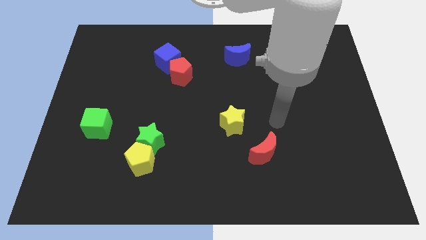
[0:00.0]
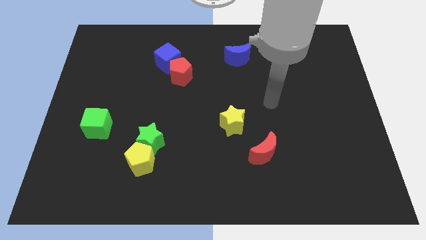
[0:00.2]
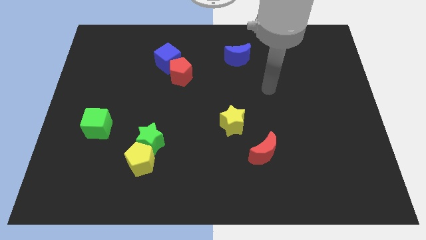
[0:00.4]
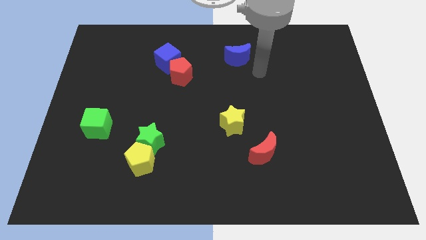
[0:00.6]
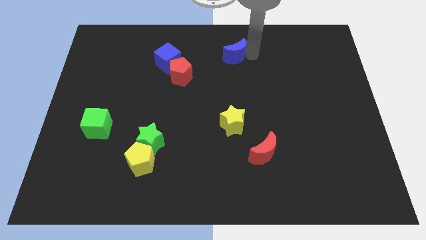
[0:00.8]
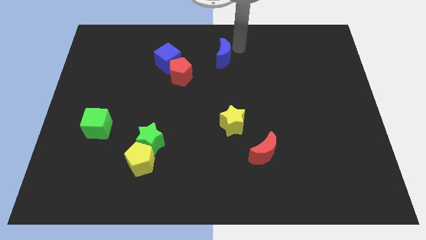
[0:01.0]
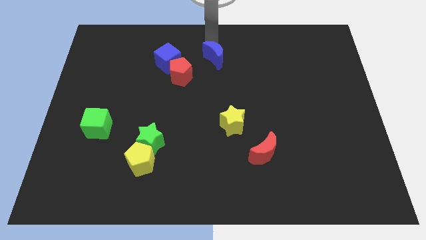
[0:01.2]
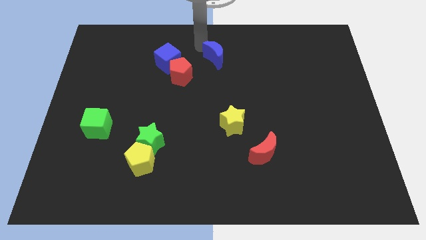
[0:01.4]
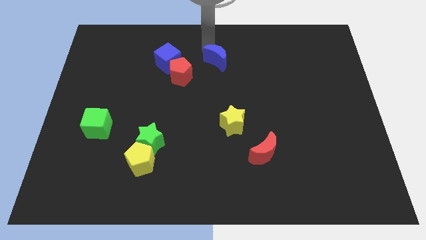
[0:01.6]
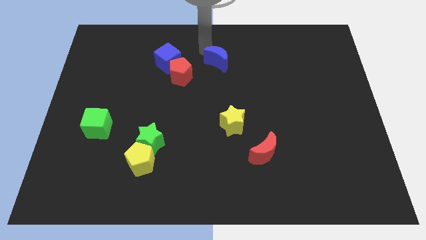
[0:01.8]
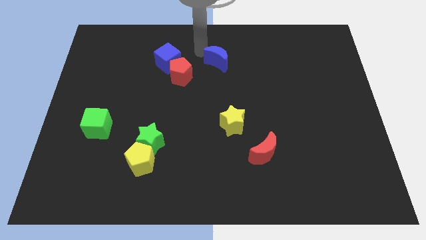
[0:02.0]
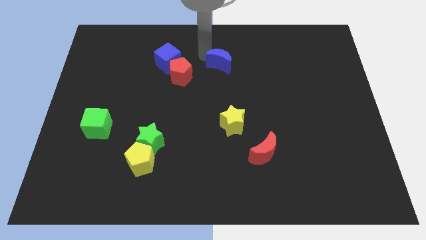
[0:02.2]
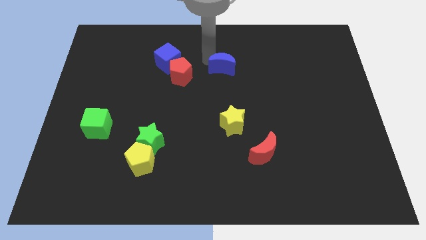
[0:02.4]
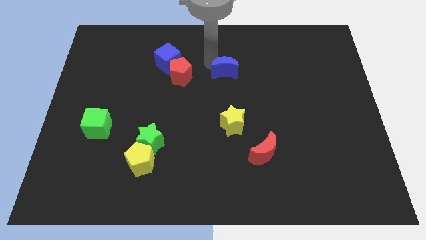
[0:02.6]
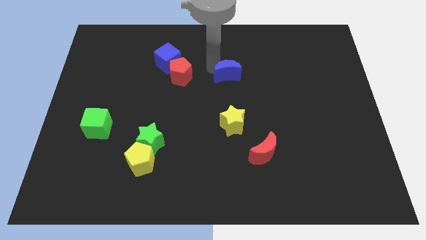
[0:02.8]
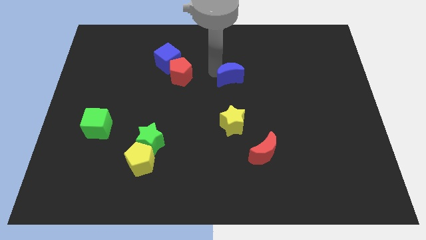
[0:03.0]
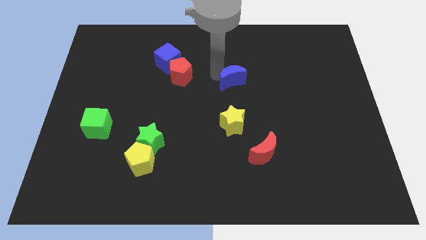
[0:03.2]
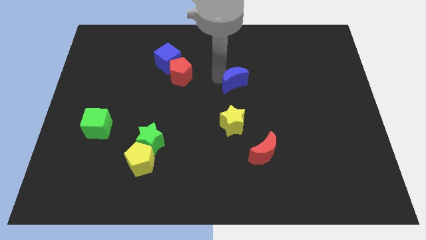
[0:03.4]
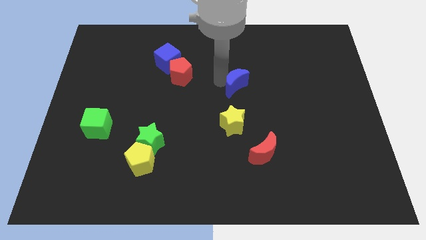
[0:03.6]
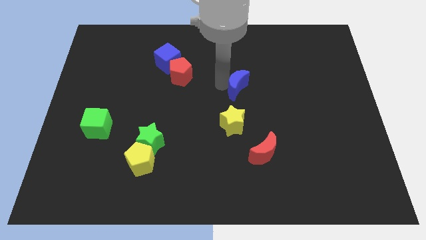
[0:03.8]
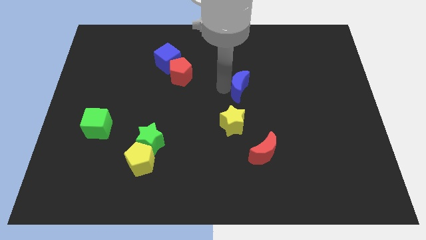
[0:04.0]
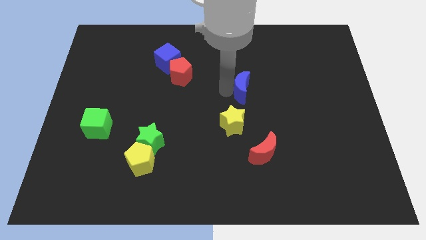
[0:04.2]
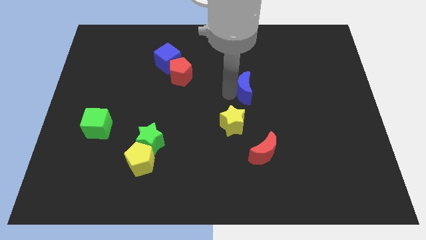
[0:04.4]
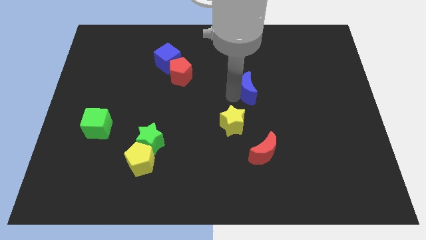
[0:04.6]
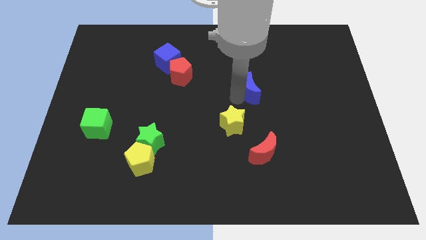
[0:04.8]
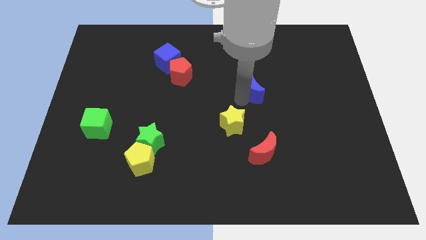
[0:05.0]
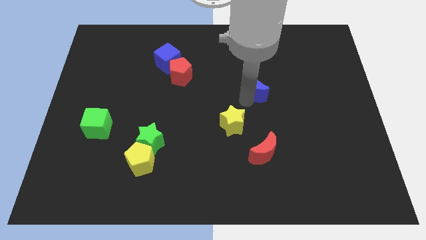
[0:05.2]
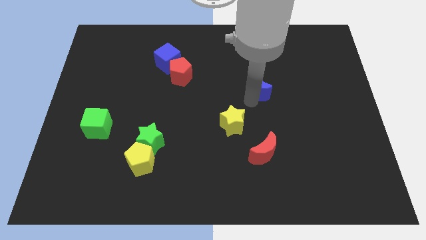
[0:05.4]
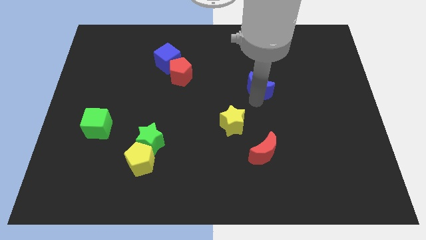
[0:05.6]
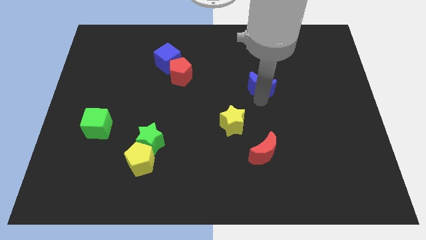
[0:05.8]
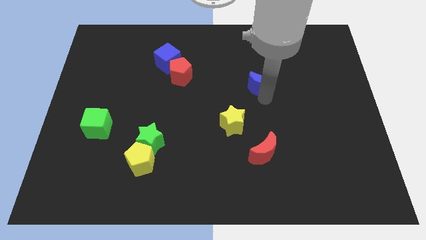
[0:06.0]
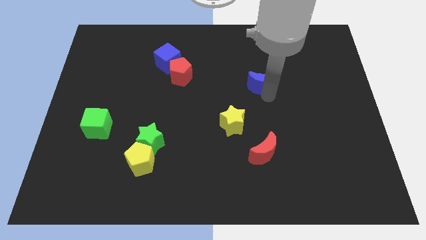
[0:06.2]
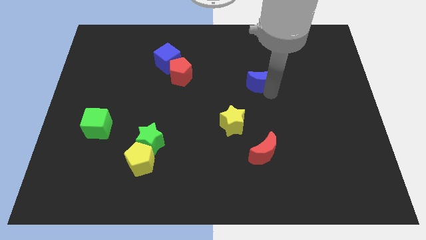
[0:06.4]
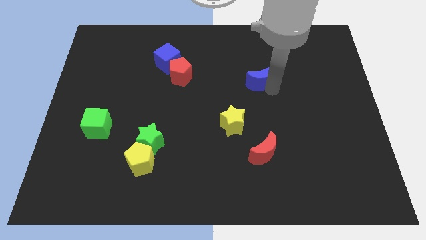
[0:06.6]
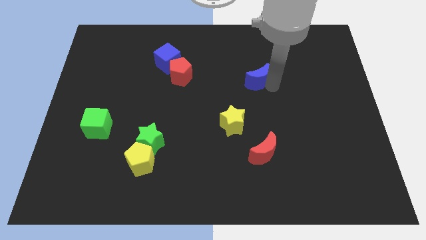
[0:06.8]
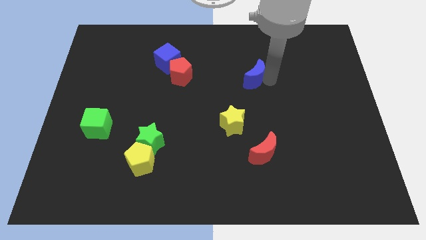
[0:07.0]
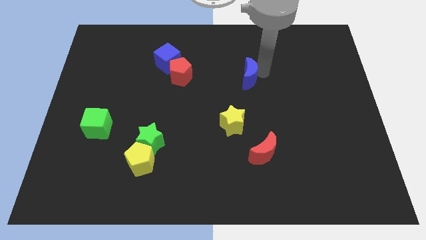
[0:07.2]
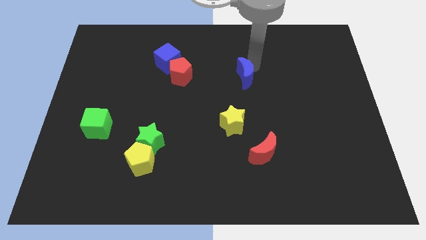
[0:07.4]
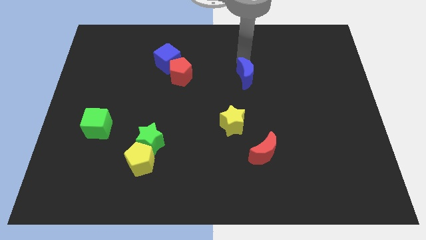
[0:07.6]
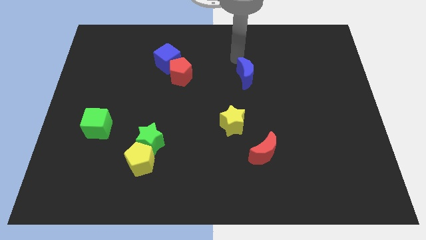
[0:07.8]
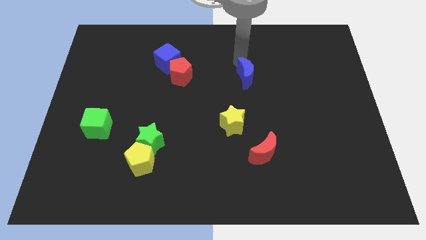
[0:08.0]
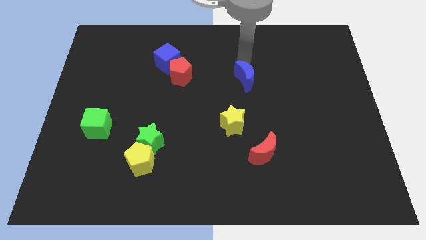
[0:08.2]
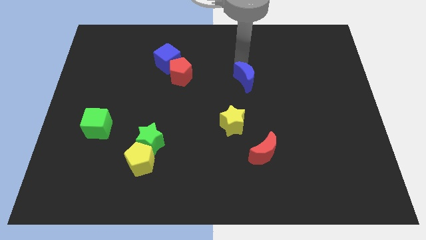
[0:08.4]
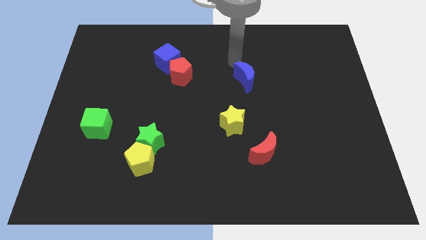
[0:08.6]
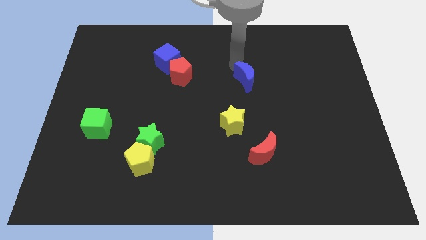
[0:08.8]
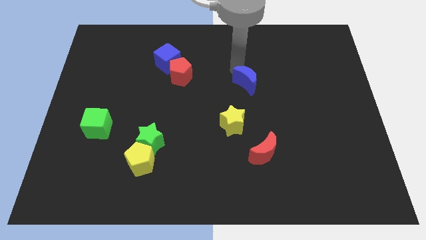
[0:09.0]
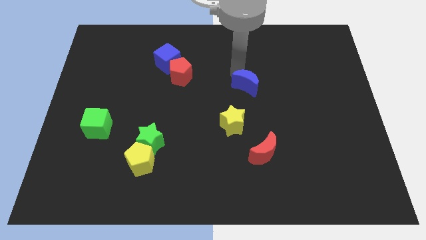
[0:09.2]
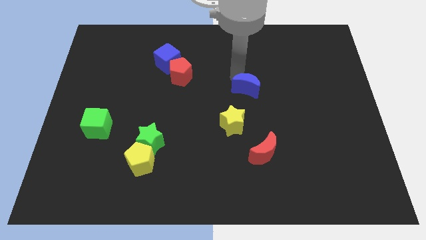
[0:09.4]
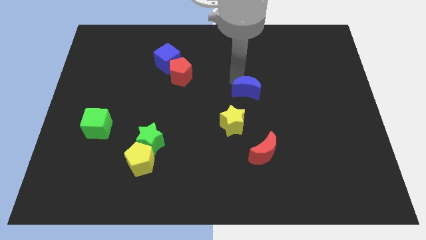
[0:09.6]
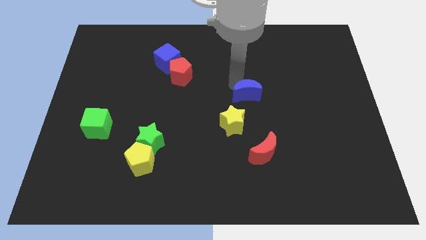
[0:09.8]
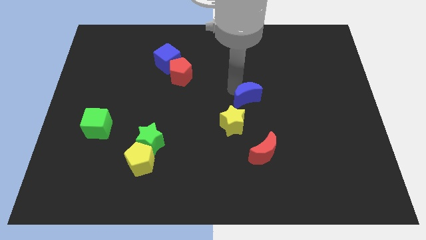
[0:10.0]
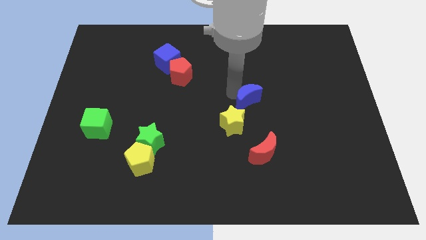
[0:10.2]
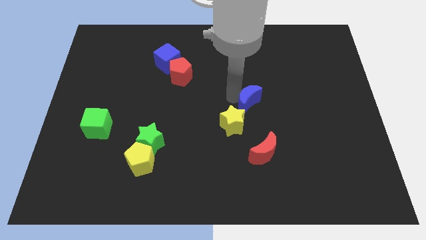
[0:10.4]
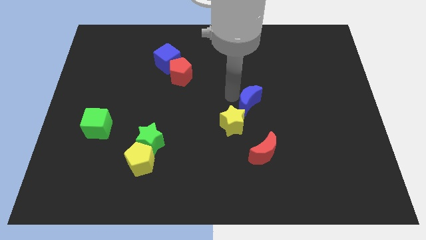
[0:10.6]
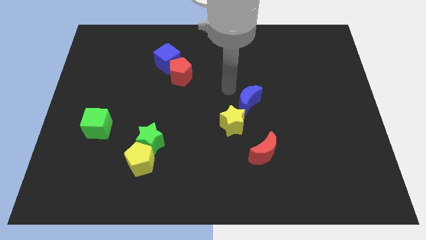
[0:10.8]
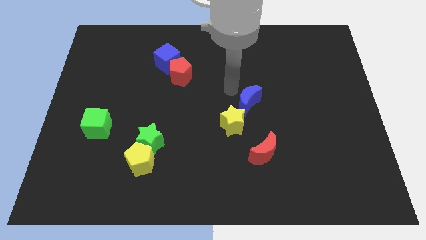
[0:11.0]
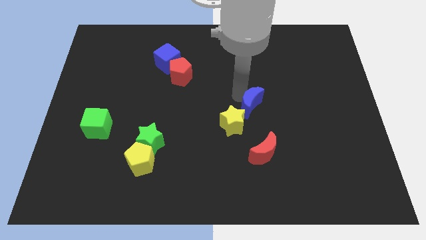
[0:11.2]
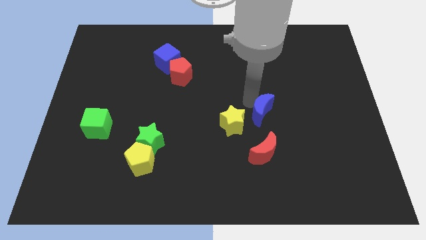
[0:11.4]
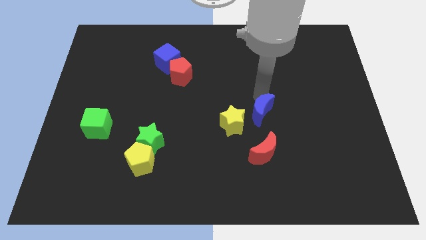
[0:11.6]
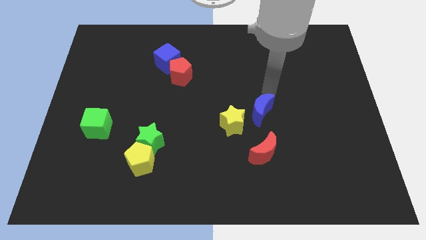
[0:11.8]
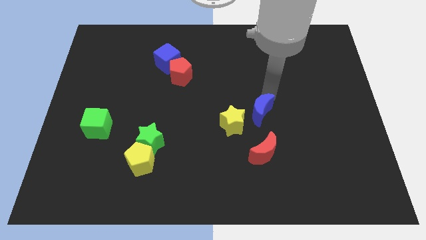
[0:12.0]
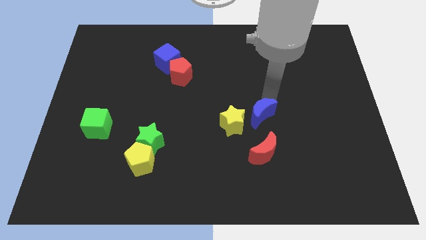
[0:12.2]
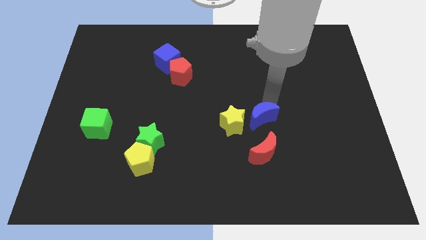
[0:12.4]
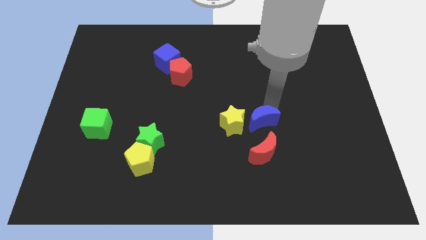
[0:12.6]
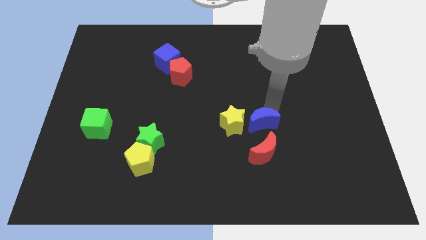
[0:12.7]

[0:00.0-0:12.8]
move the blue moon downwards

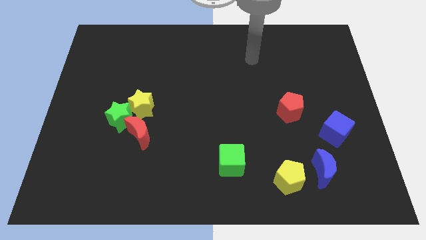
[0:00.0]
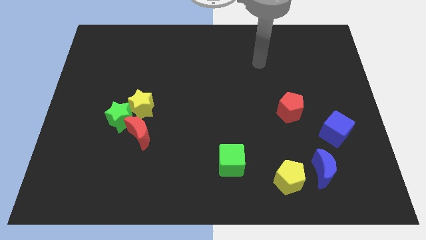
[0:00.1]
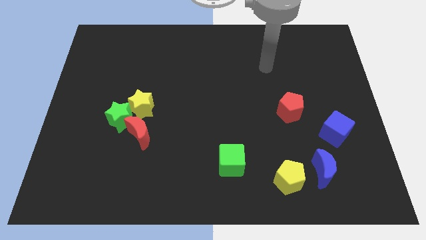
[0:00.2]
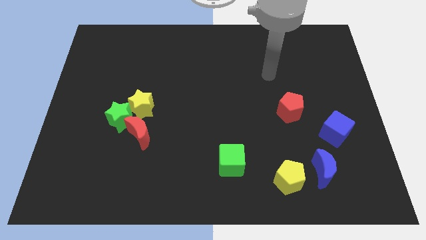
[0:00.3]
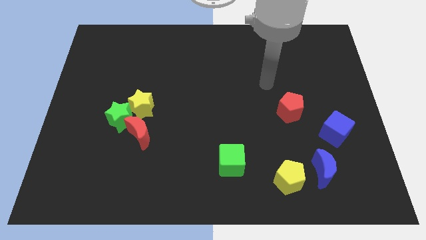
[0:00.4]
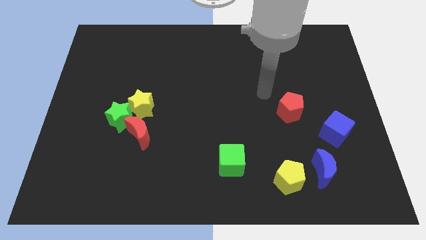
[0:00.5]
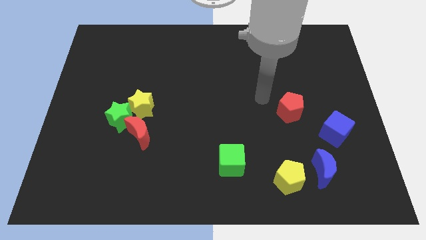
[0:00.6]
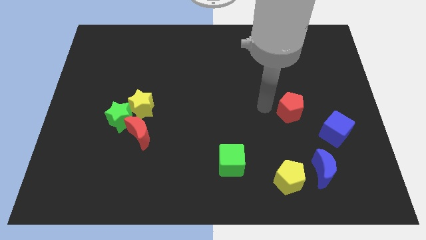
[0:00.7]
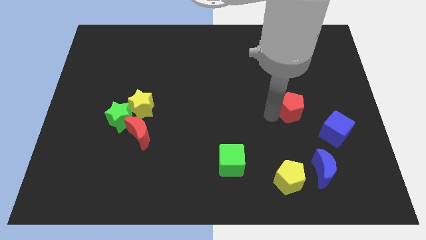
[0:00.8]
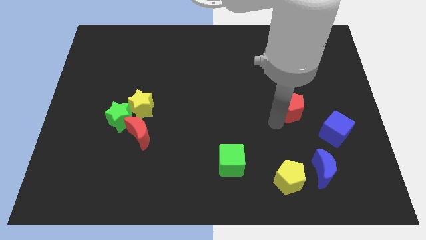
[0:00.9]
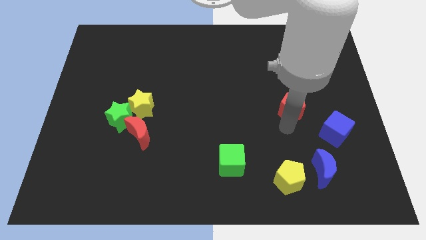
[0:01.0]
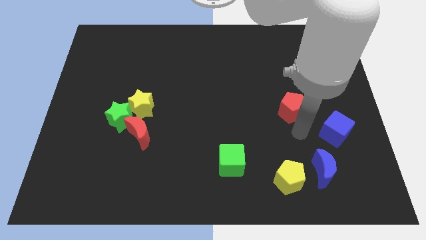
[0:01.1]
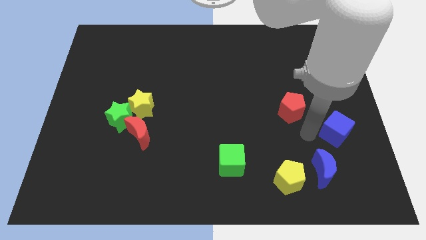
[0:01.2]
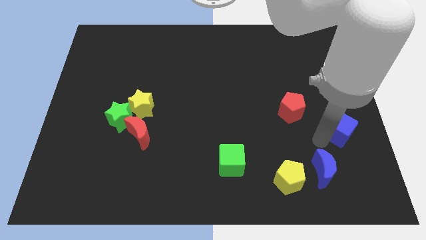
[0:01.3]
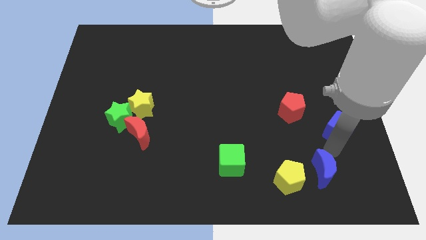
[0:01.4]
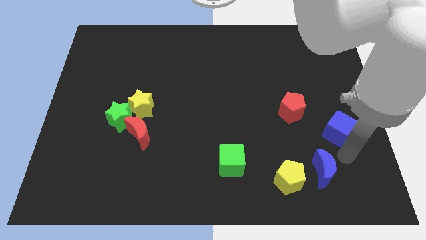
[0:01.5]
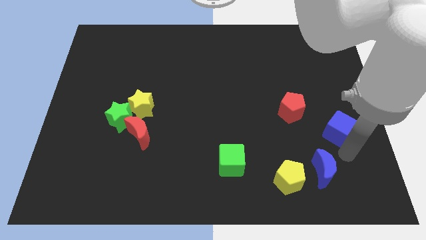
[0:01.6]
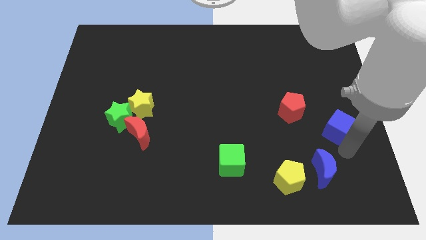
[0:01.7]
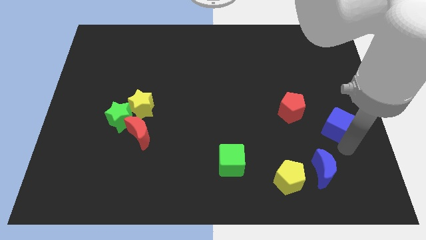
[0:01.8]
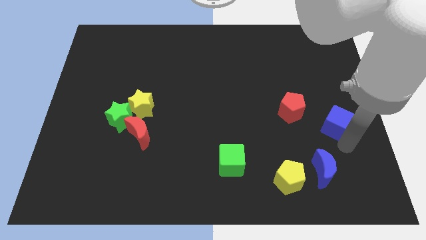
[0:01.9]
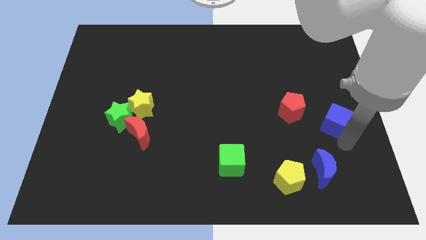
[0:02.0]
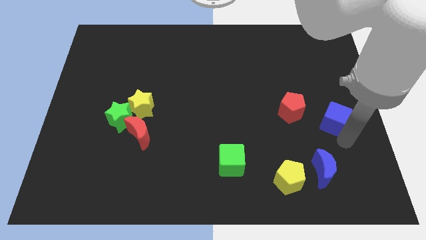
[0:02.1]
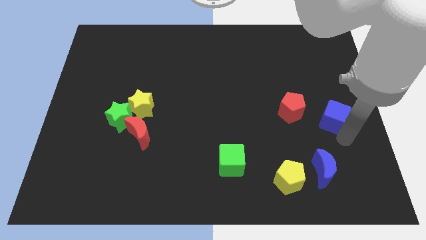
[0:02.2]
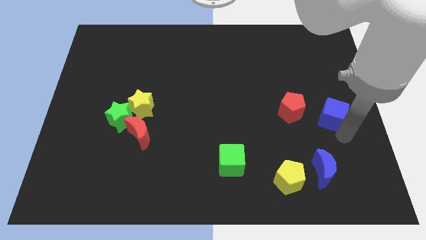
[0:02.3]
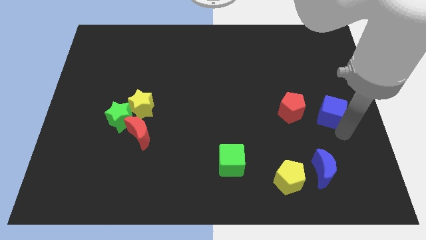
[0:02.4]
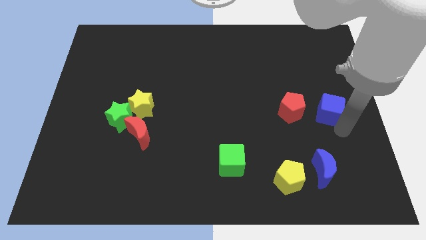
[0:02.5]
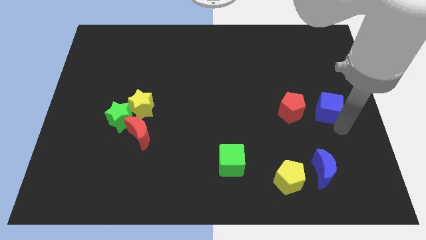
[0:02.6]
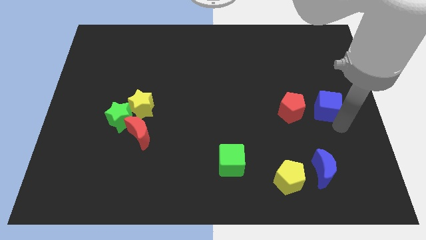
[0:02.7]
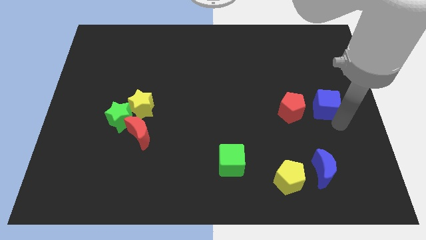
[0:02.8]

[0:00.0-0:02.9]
slightly push the blue cube up
